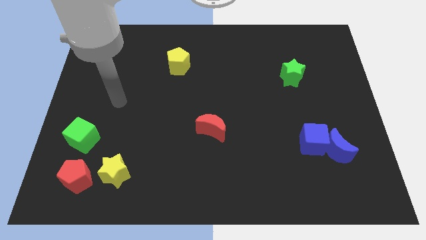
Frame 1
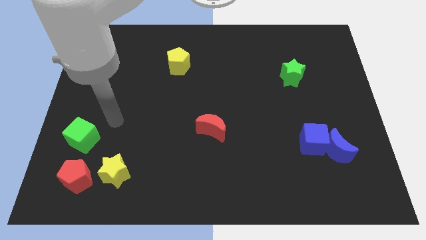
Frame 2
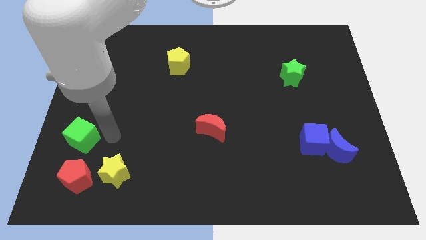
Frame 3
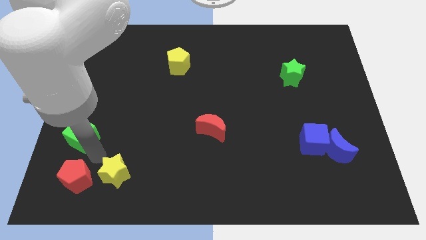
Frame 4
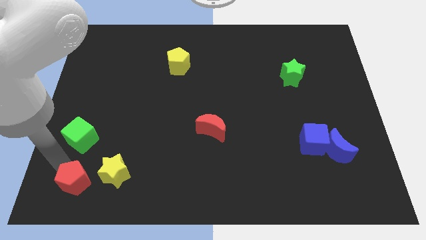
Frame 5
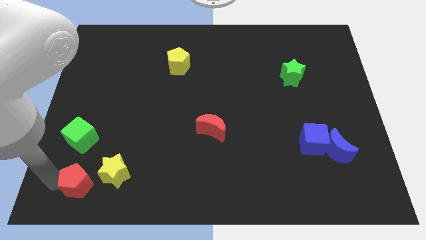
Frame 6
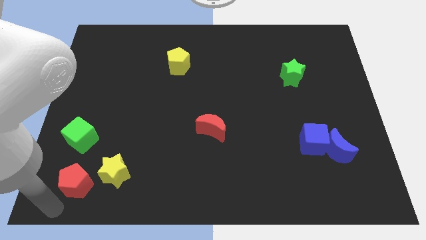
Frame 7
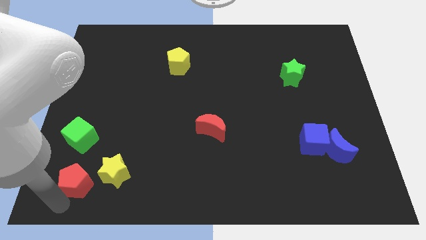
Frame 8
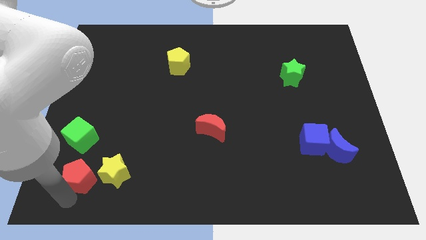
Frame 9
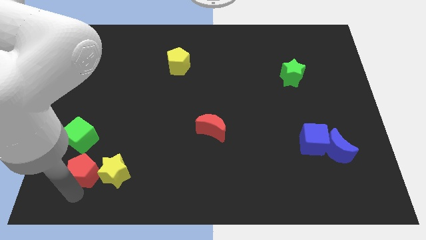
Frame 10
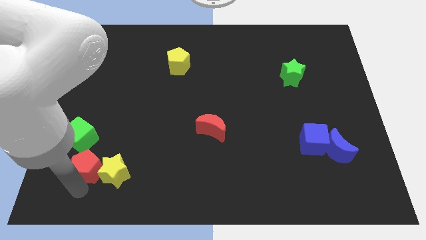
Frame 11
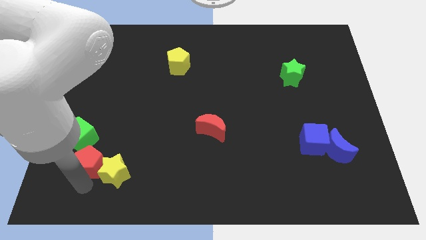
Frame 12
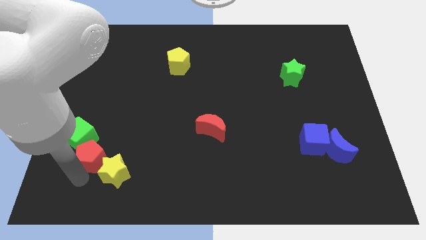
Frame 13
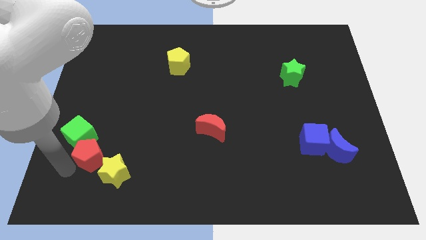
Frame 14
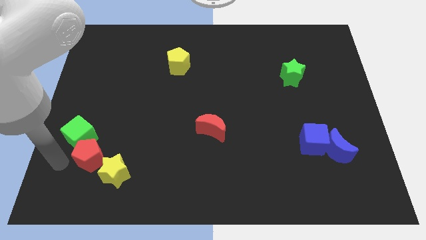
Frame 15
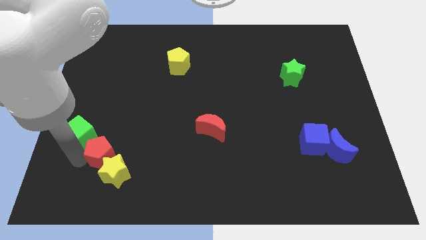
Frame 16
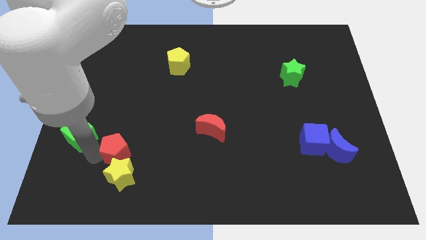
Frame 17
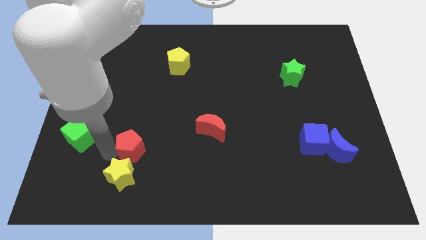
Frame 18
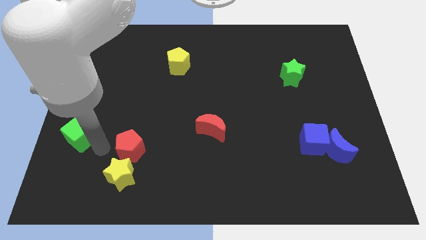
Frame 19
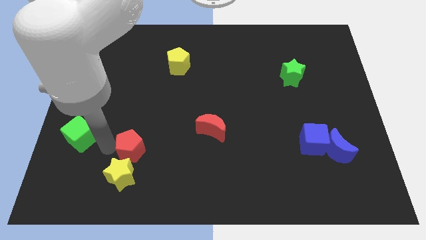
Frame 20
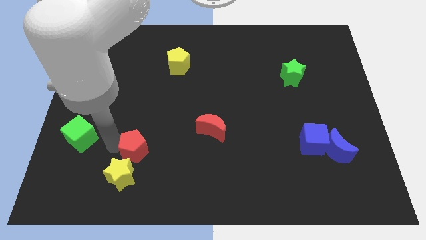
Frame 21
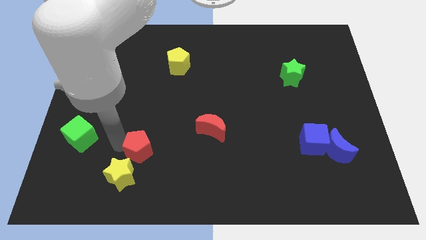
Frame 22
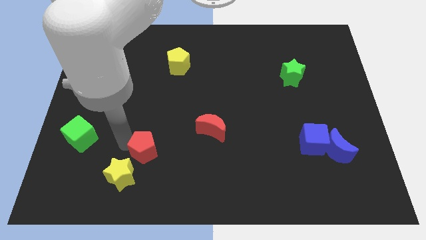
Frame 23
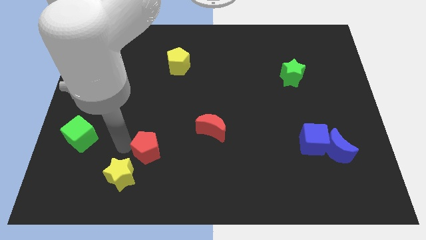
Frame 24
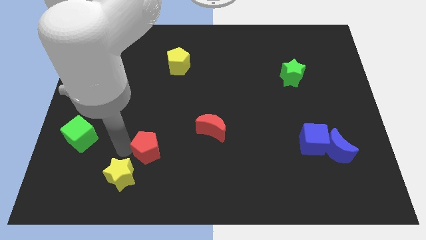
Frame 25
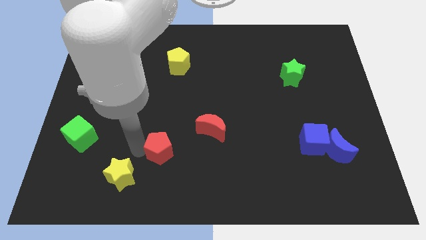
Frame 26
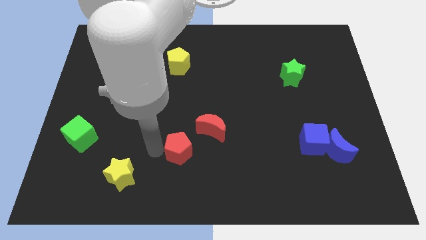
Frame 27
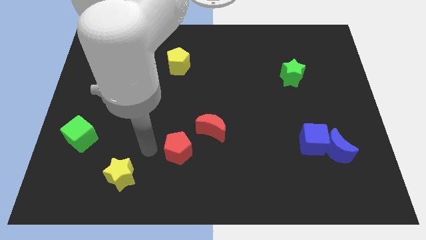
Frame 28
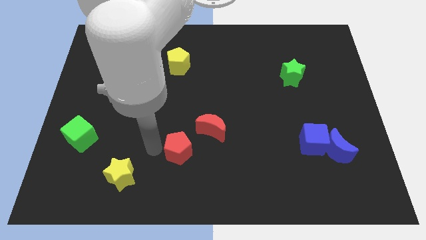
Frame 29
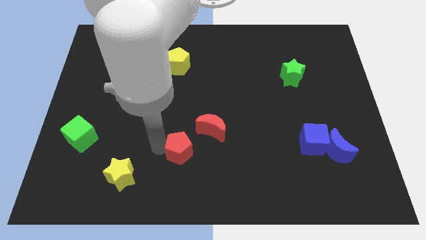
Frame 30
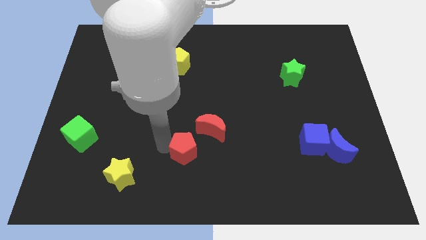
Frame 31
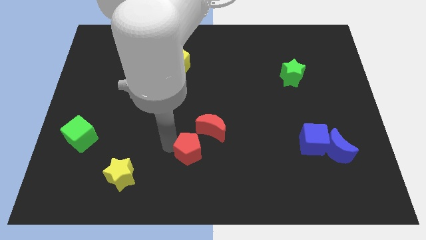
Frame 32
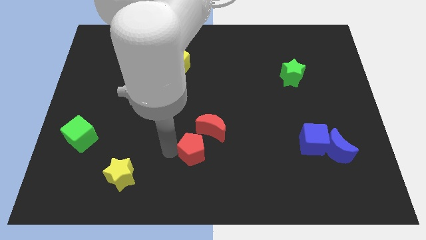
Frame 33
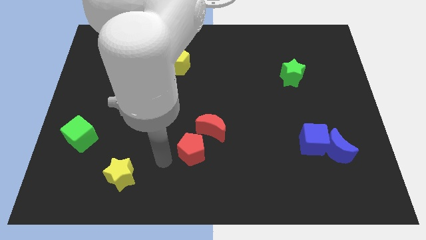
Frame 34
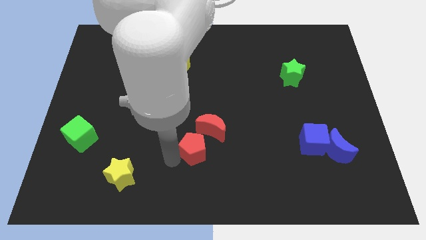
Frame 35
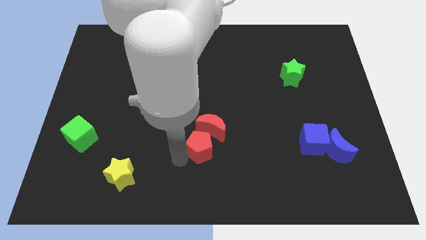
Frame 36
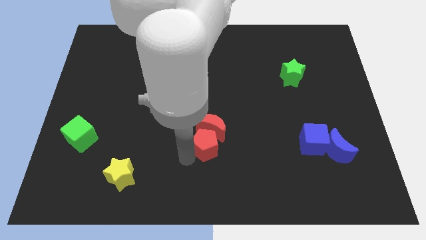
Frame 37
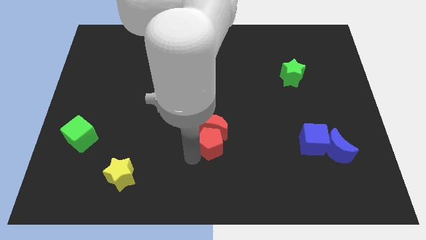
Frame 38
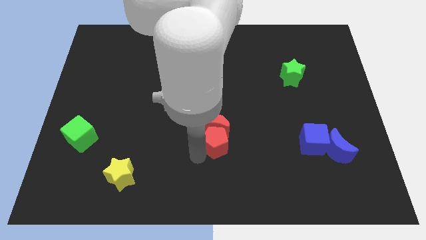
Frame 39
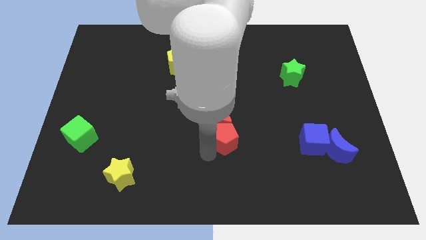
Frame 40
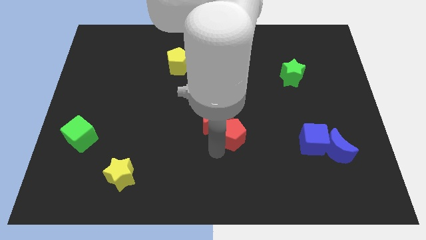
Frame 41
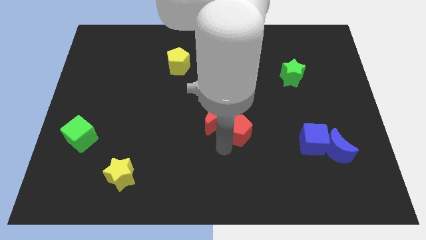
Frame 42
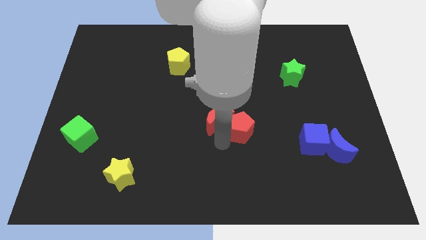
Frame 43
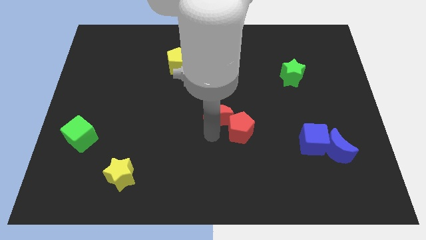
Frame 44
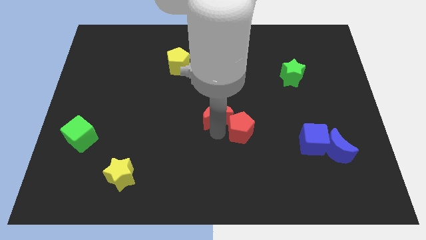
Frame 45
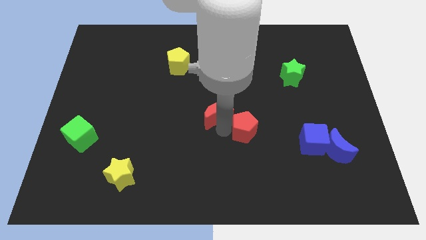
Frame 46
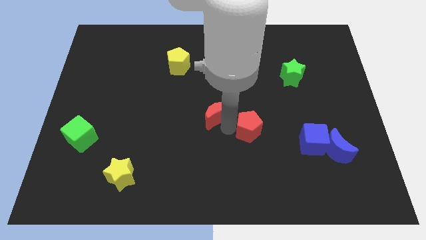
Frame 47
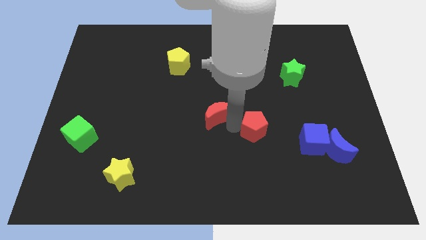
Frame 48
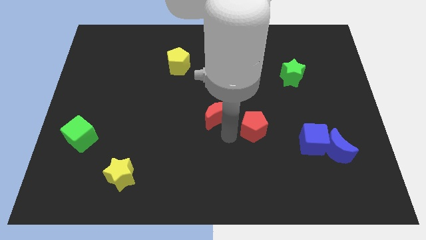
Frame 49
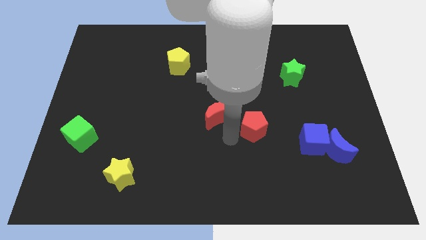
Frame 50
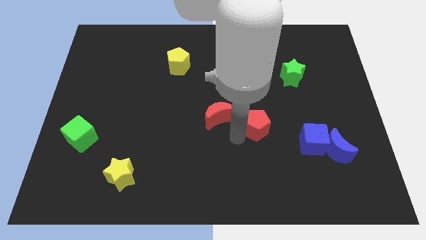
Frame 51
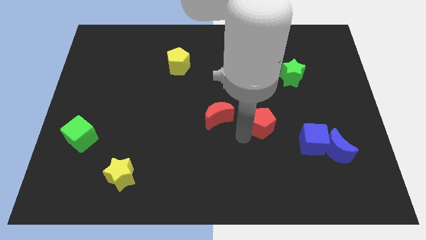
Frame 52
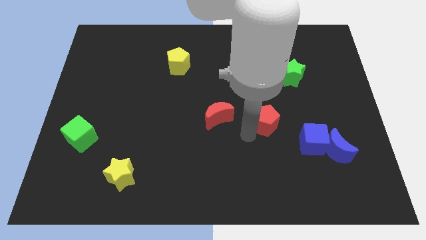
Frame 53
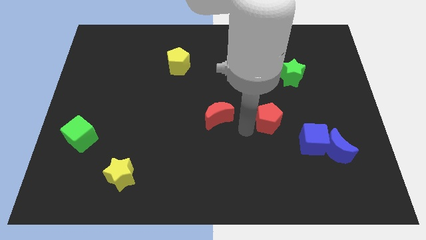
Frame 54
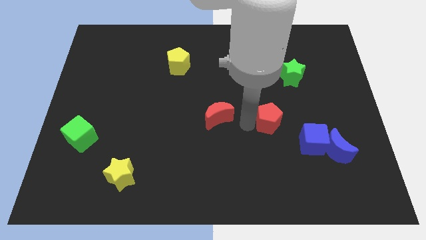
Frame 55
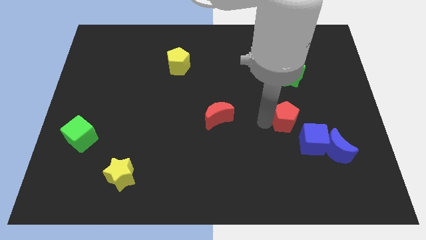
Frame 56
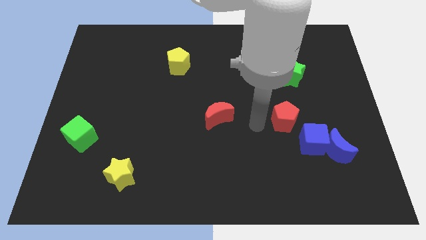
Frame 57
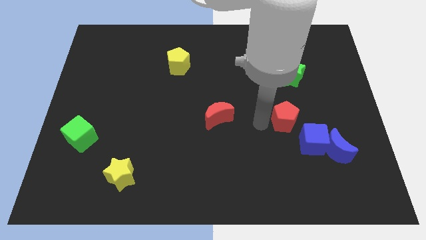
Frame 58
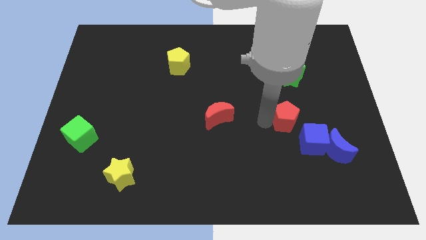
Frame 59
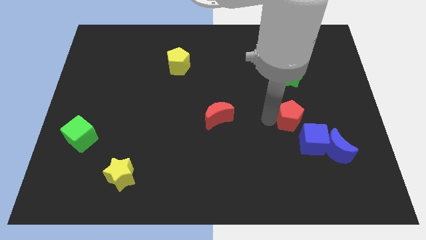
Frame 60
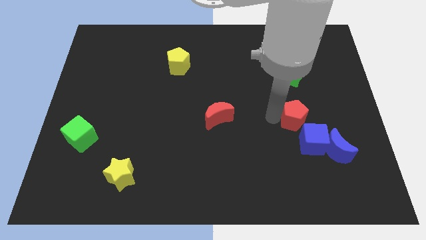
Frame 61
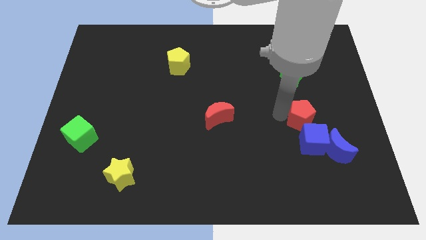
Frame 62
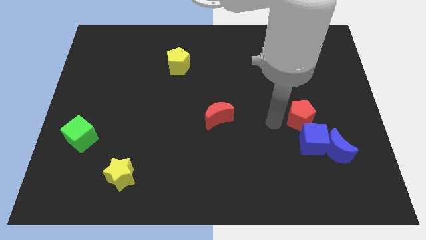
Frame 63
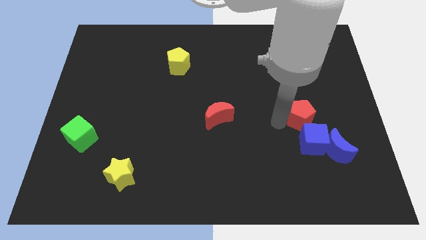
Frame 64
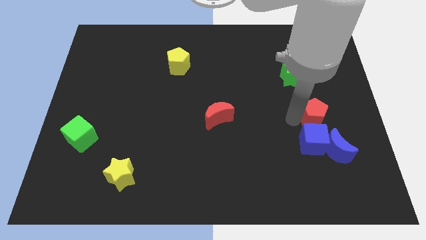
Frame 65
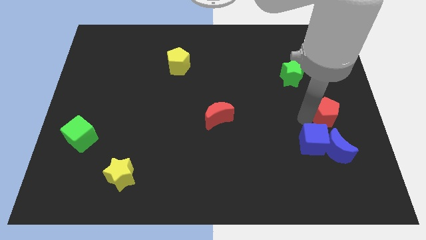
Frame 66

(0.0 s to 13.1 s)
slide the red pentagon to the right side of the board
